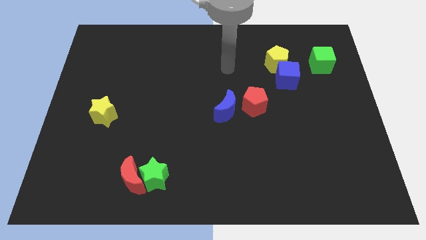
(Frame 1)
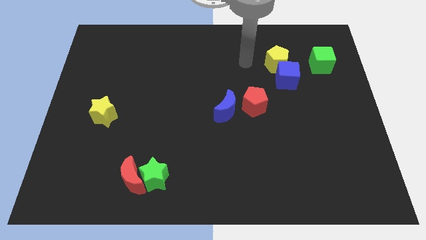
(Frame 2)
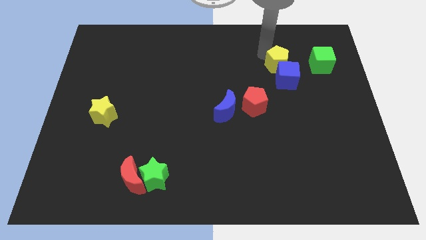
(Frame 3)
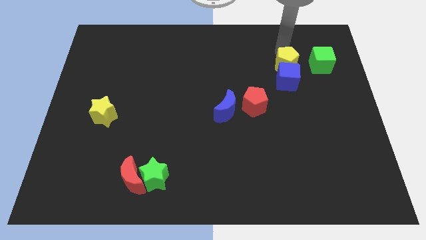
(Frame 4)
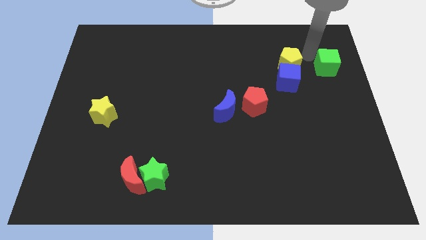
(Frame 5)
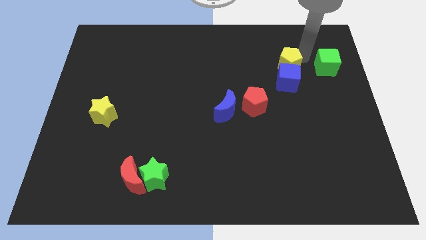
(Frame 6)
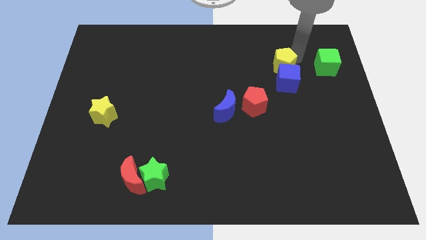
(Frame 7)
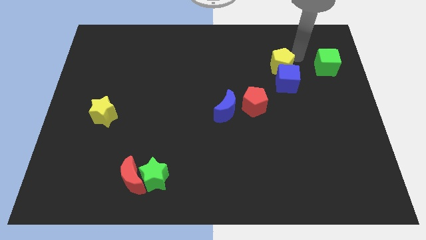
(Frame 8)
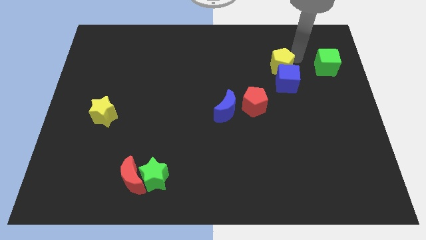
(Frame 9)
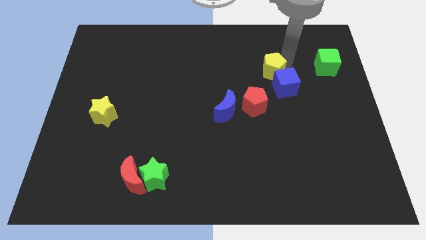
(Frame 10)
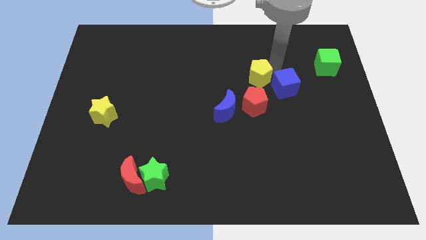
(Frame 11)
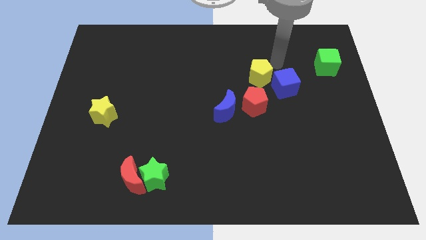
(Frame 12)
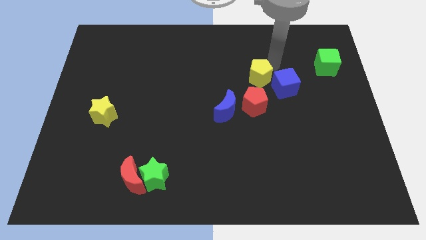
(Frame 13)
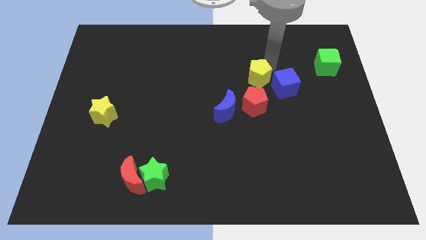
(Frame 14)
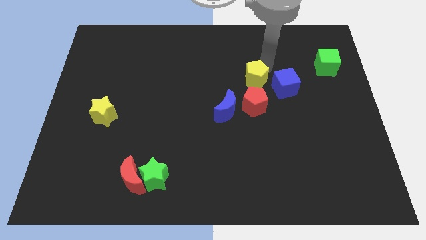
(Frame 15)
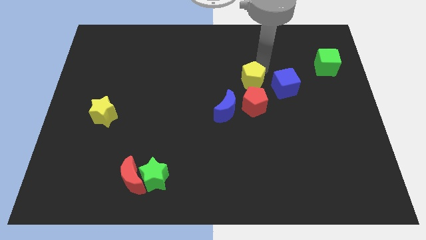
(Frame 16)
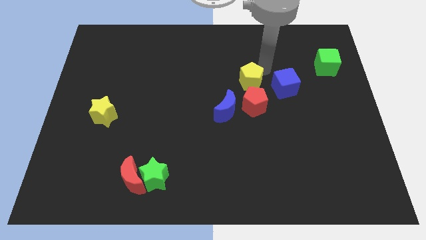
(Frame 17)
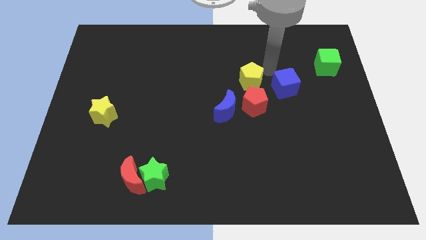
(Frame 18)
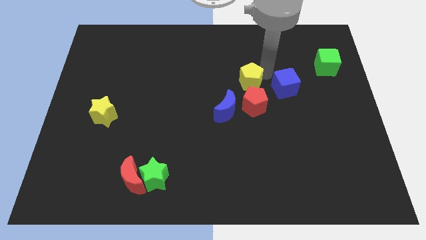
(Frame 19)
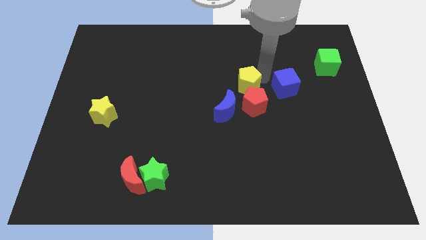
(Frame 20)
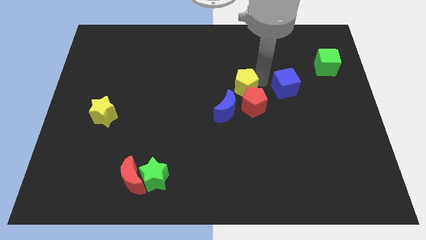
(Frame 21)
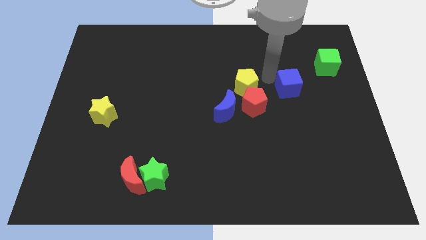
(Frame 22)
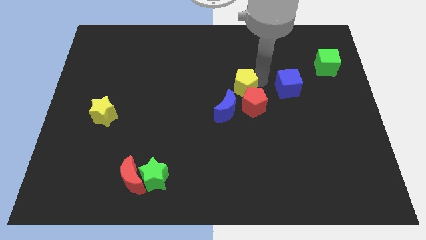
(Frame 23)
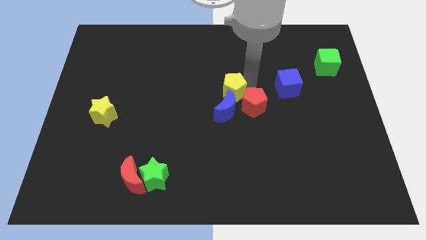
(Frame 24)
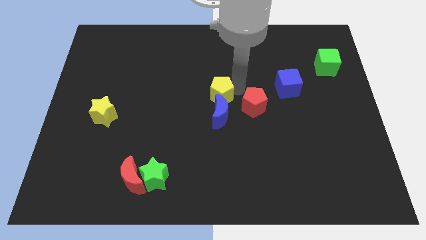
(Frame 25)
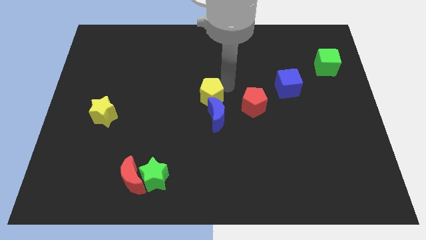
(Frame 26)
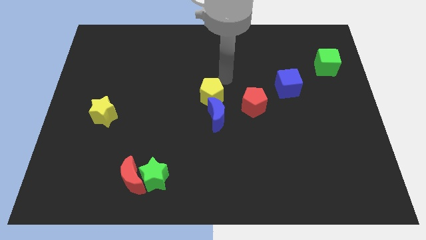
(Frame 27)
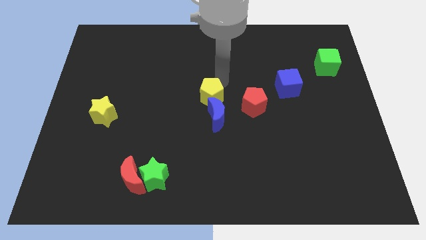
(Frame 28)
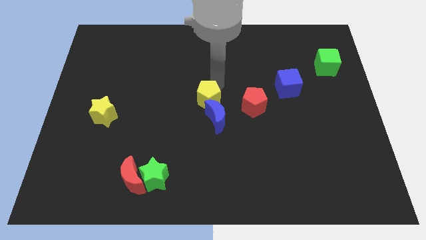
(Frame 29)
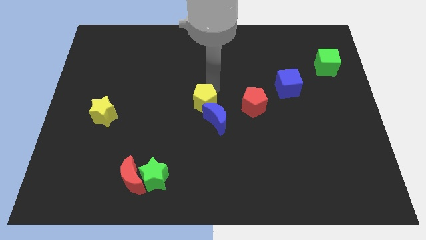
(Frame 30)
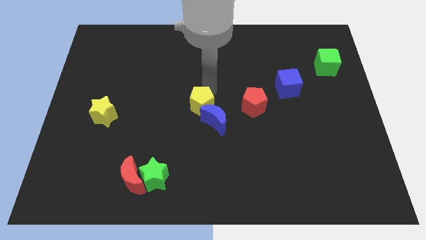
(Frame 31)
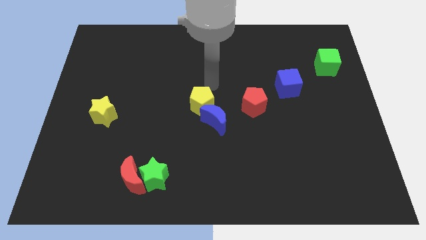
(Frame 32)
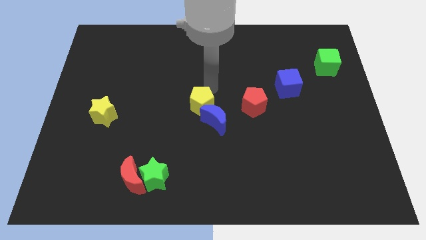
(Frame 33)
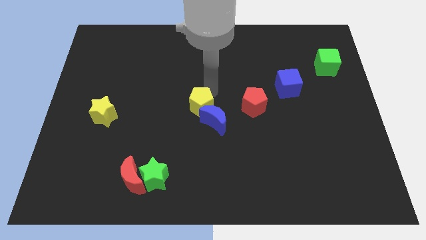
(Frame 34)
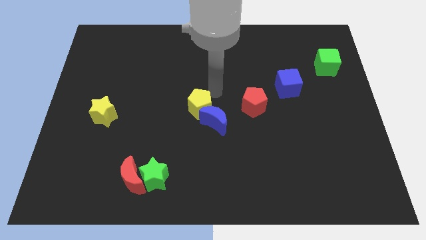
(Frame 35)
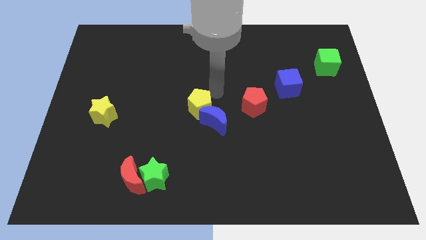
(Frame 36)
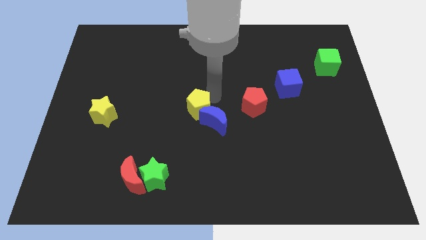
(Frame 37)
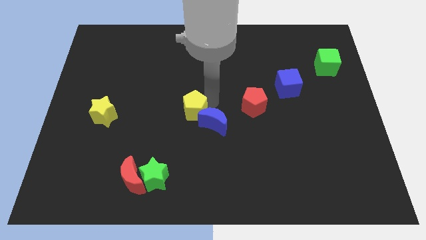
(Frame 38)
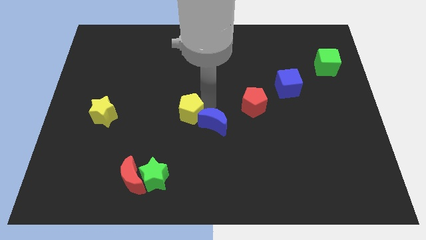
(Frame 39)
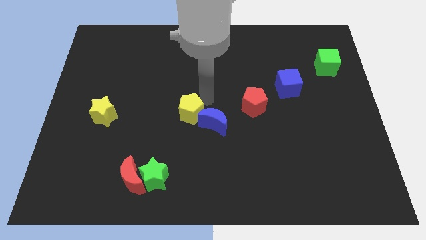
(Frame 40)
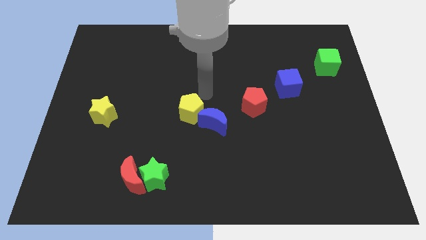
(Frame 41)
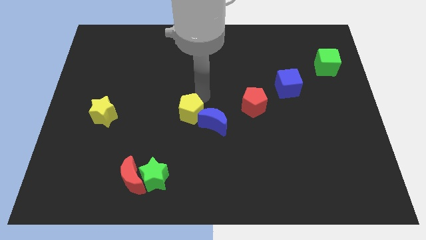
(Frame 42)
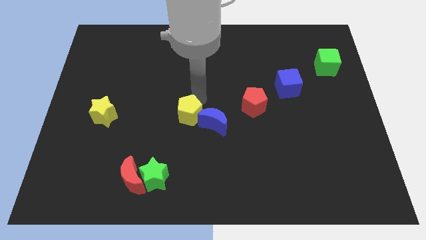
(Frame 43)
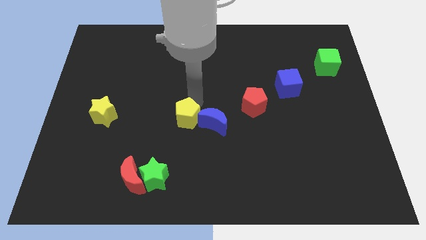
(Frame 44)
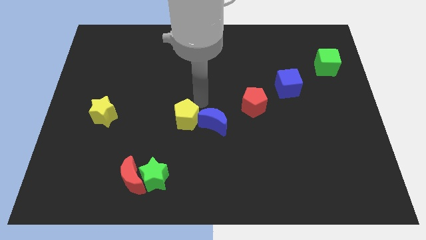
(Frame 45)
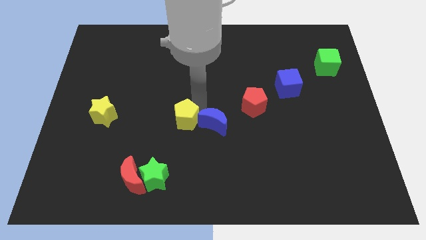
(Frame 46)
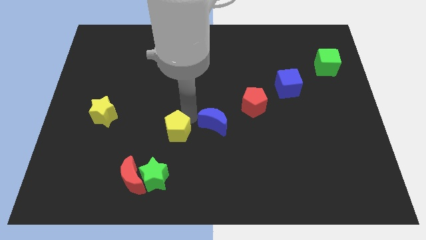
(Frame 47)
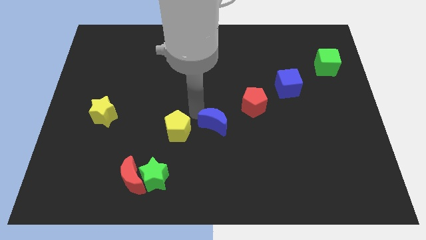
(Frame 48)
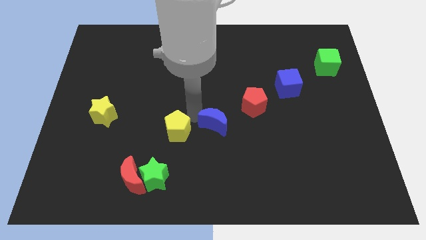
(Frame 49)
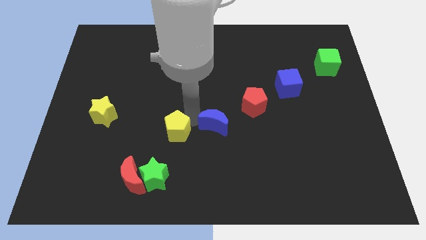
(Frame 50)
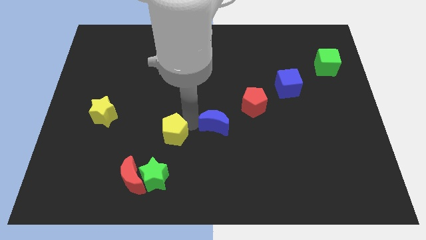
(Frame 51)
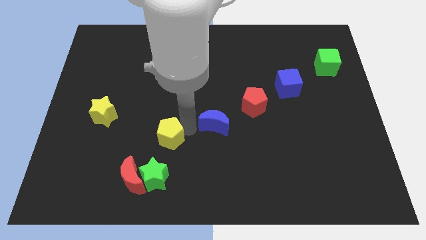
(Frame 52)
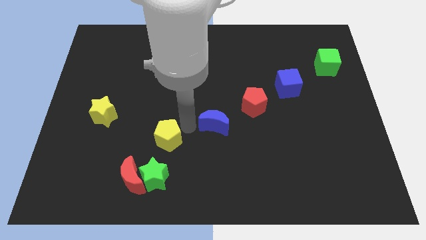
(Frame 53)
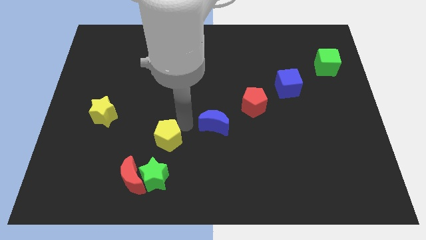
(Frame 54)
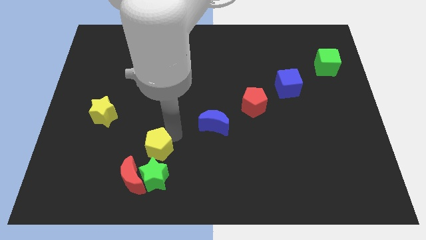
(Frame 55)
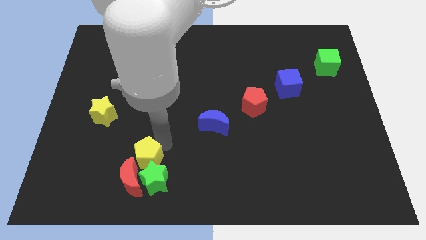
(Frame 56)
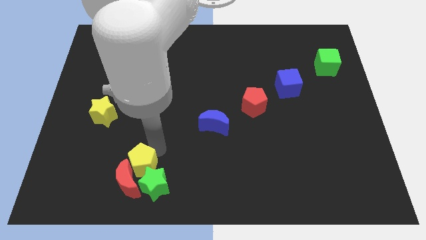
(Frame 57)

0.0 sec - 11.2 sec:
move the yellow pentagon next to the red moon

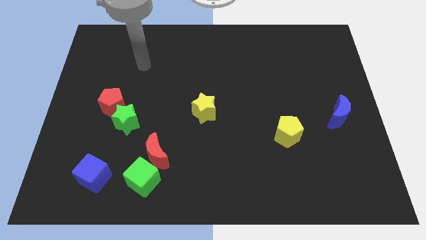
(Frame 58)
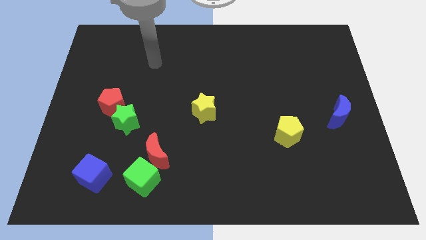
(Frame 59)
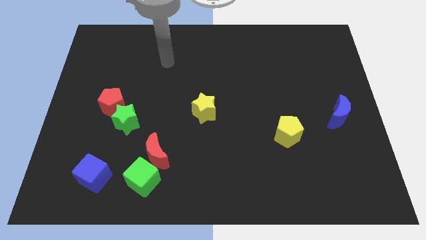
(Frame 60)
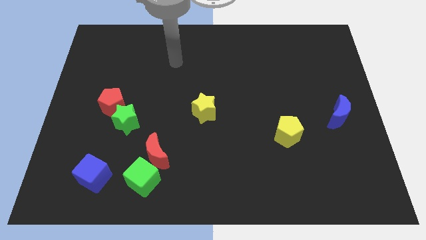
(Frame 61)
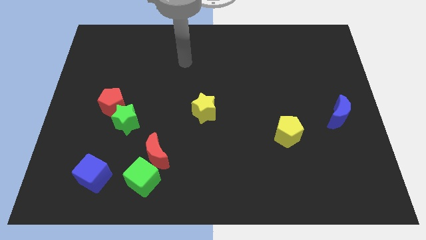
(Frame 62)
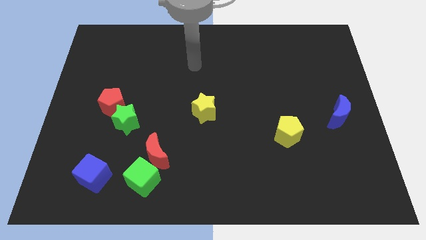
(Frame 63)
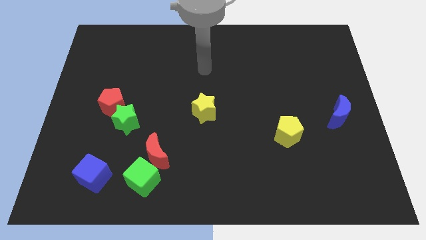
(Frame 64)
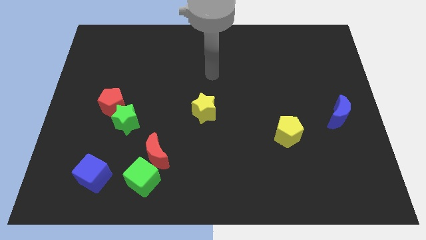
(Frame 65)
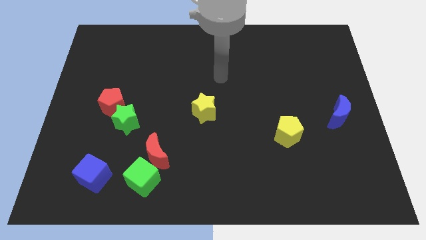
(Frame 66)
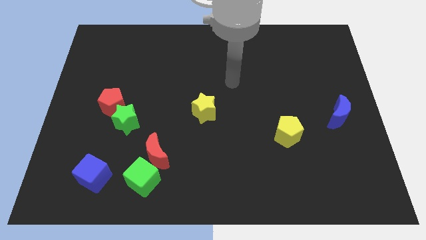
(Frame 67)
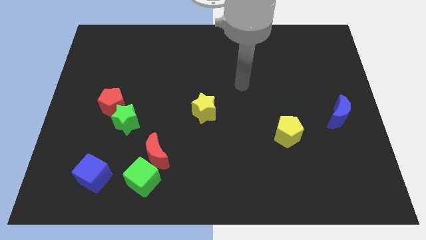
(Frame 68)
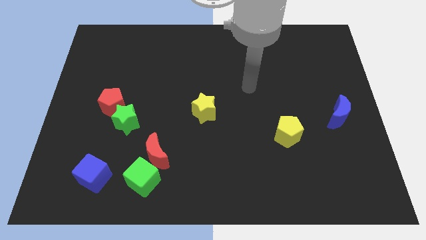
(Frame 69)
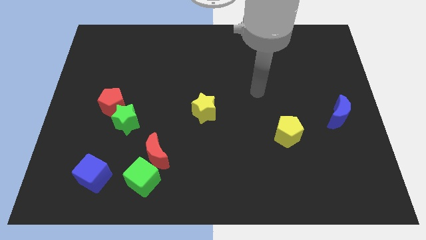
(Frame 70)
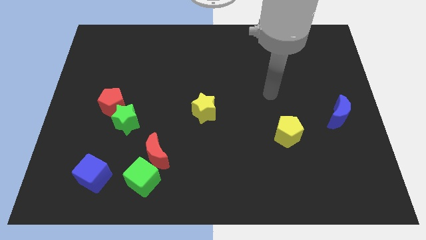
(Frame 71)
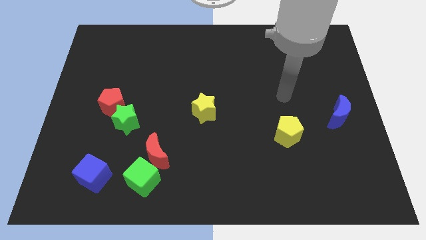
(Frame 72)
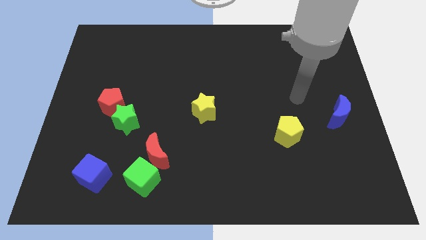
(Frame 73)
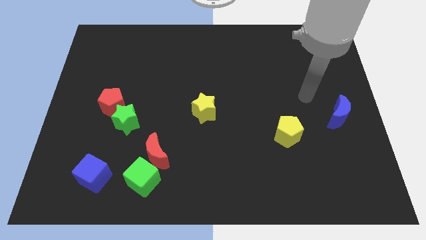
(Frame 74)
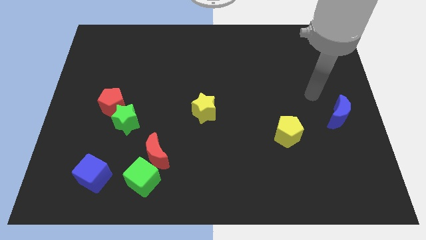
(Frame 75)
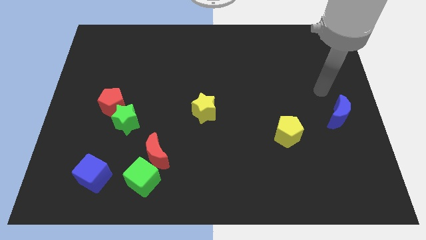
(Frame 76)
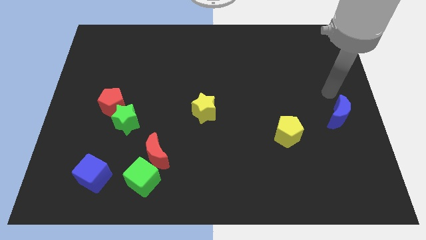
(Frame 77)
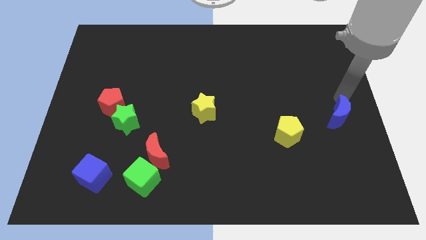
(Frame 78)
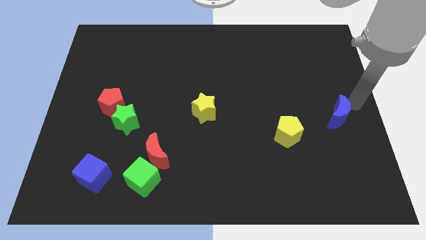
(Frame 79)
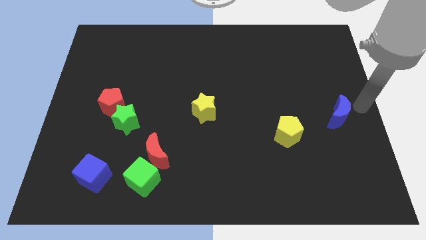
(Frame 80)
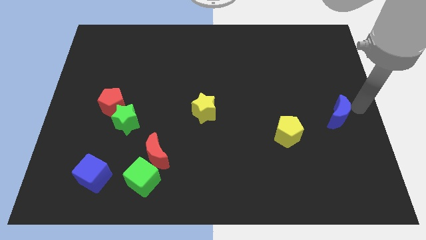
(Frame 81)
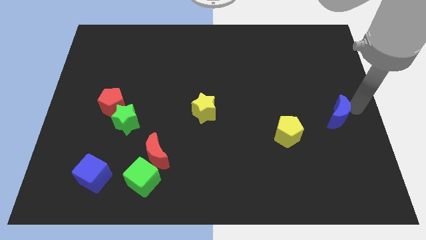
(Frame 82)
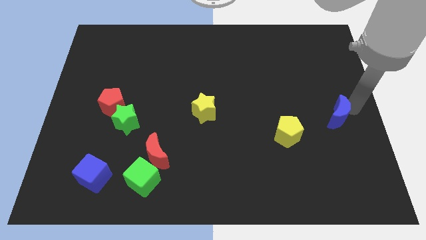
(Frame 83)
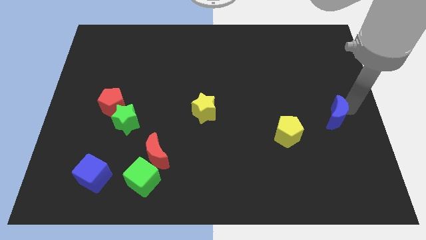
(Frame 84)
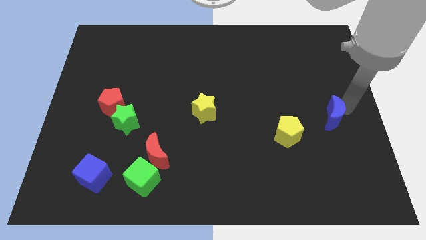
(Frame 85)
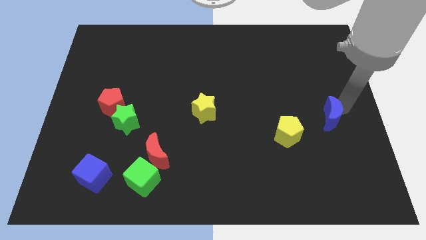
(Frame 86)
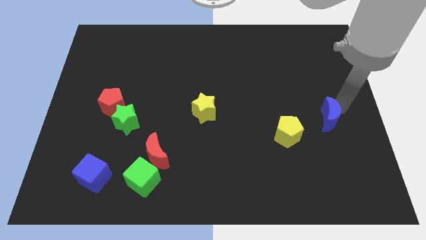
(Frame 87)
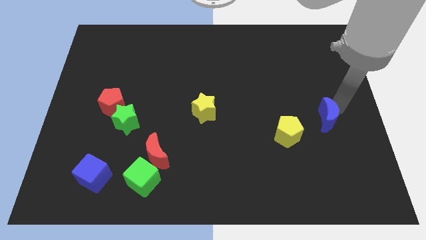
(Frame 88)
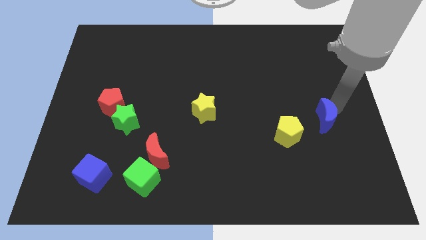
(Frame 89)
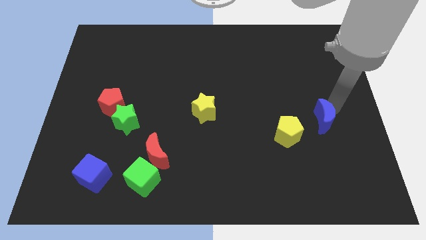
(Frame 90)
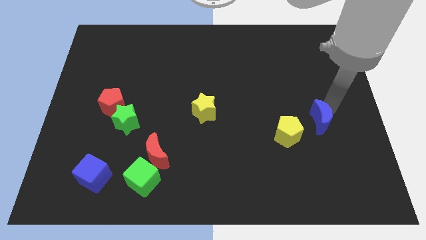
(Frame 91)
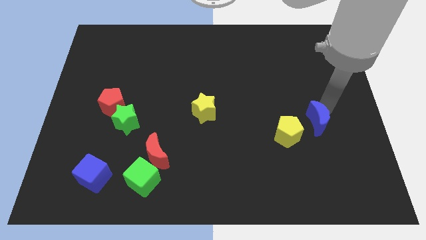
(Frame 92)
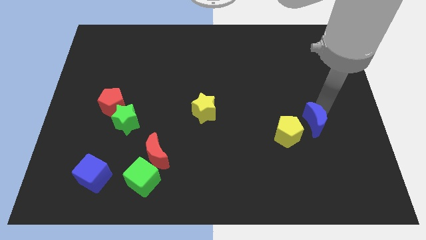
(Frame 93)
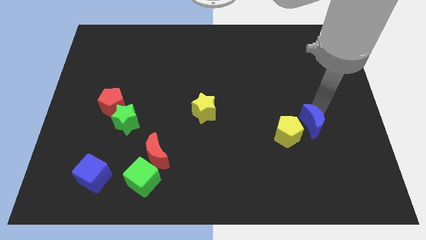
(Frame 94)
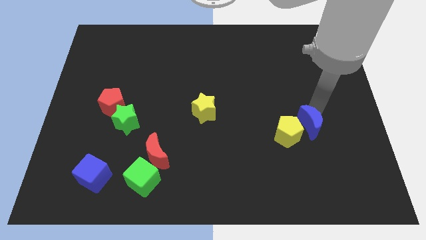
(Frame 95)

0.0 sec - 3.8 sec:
move the blue moon to the yellow pentagon
